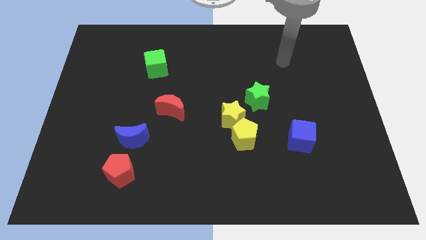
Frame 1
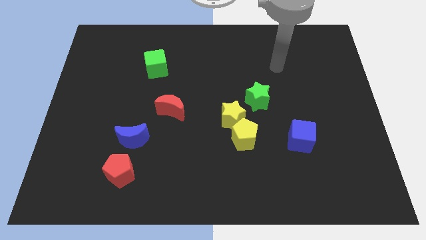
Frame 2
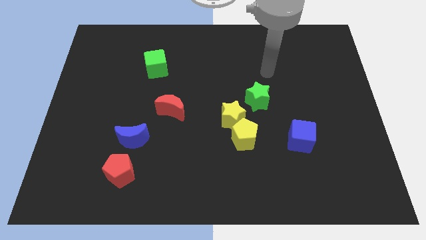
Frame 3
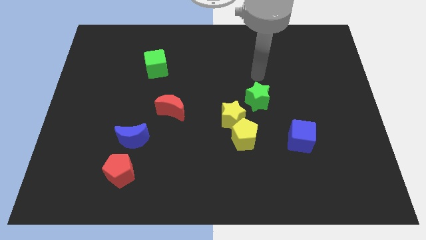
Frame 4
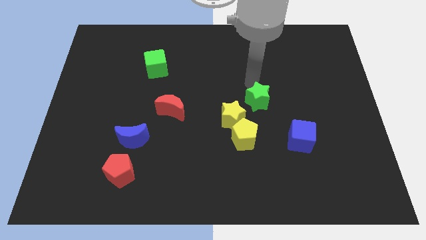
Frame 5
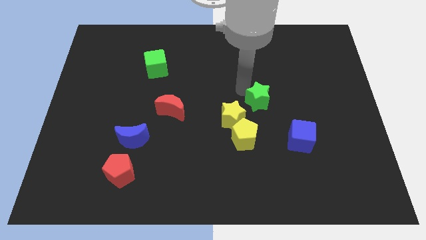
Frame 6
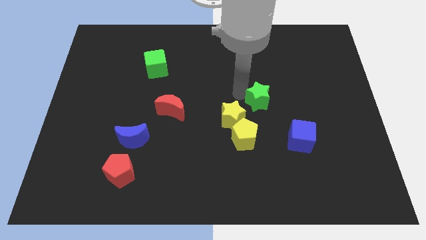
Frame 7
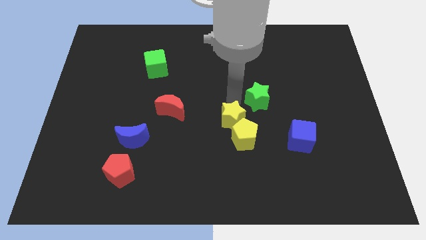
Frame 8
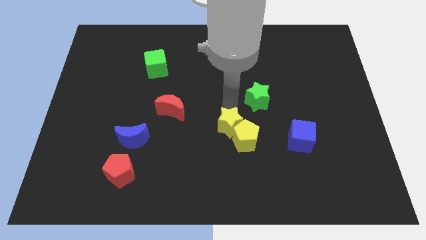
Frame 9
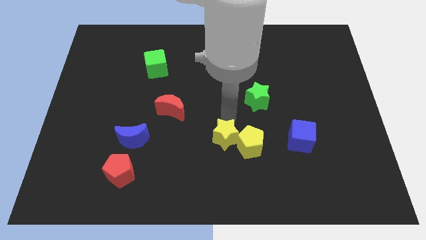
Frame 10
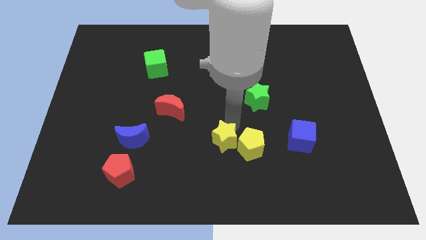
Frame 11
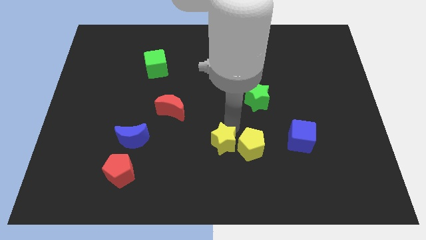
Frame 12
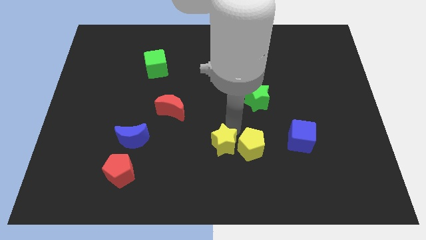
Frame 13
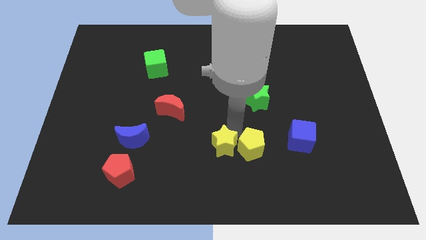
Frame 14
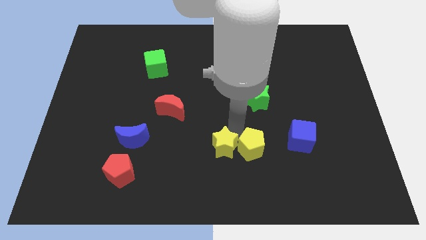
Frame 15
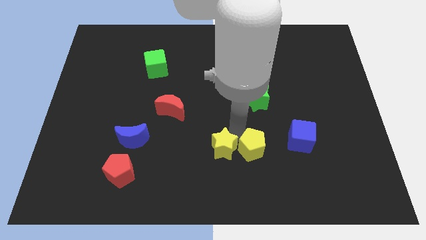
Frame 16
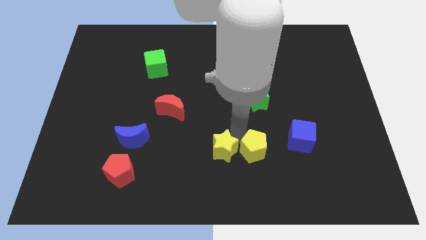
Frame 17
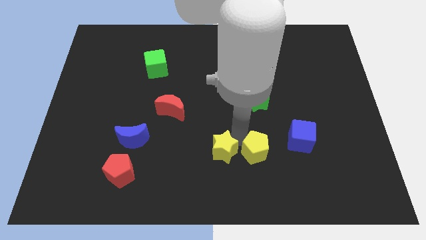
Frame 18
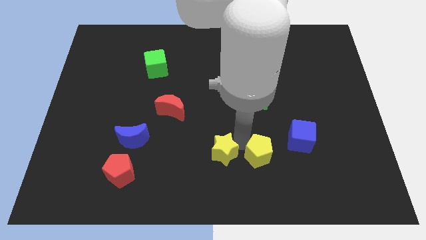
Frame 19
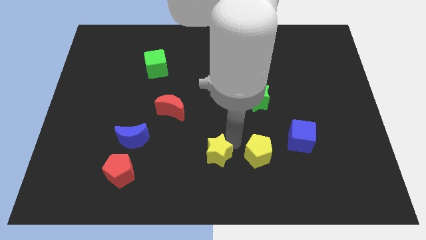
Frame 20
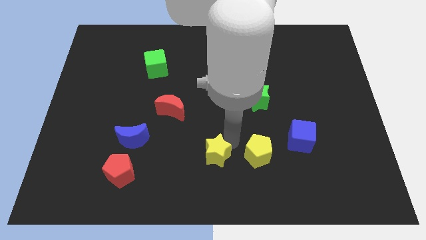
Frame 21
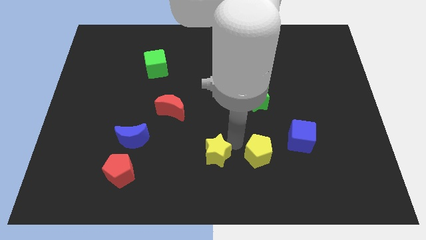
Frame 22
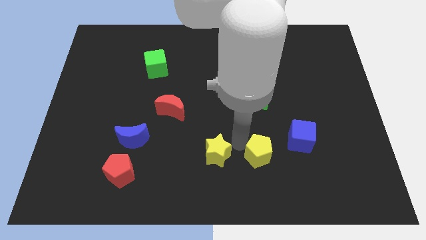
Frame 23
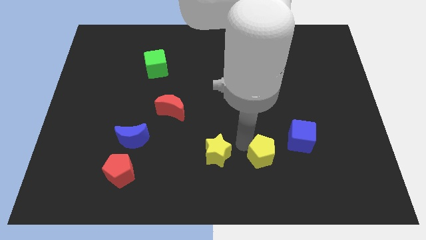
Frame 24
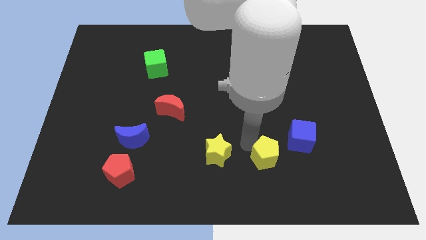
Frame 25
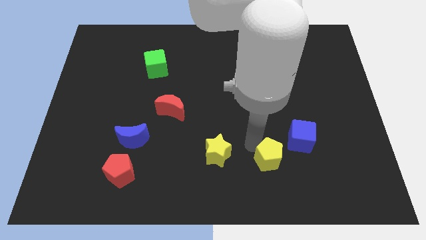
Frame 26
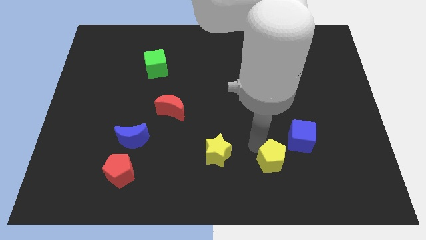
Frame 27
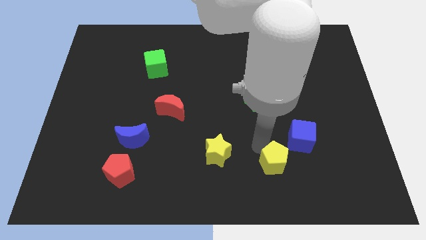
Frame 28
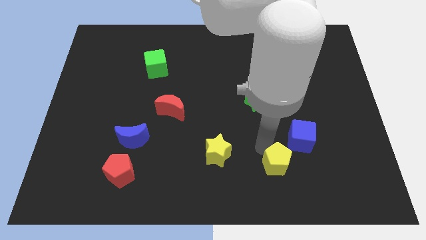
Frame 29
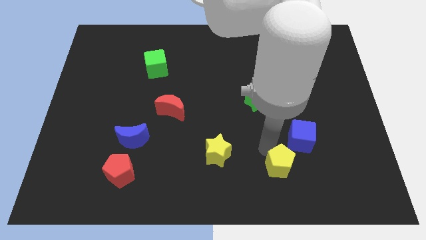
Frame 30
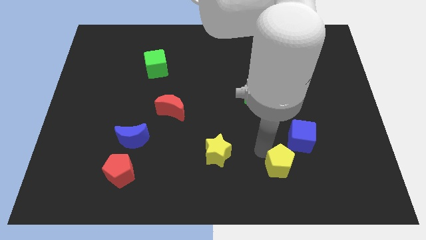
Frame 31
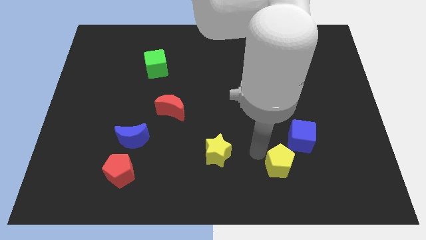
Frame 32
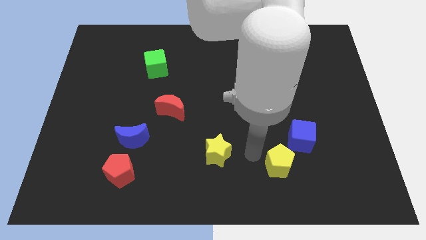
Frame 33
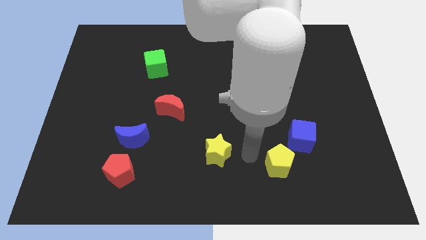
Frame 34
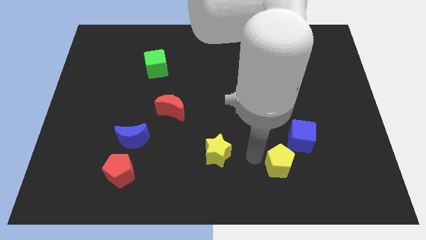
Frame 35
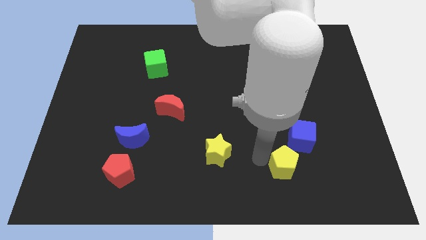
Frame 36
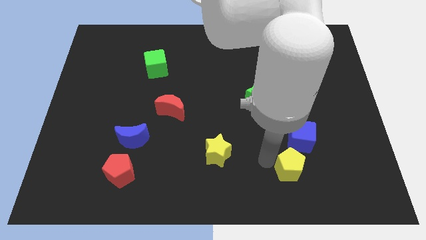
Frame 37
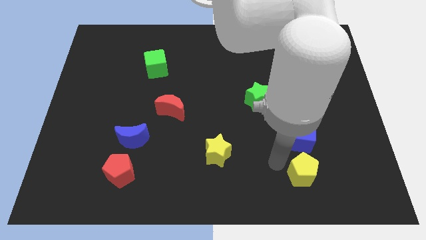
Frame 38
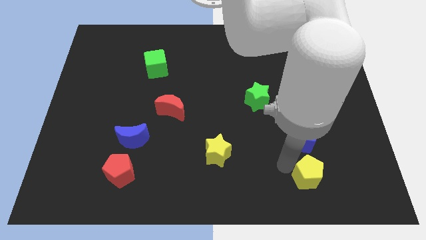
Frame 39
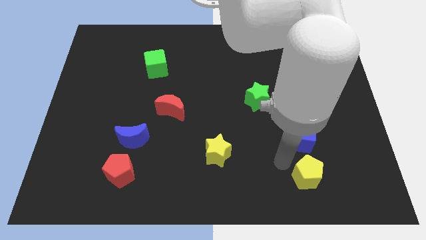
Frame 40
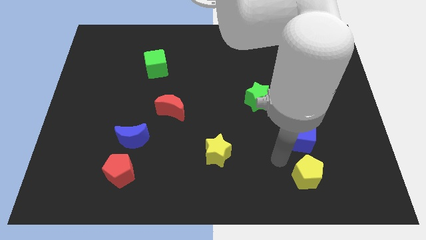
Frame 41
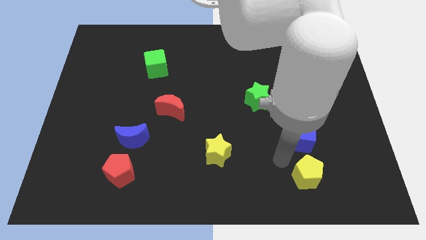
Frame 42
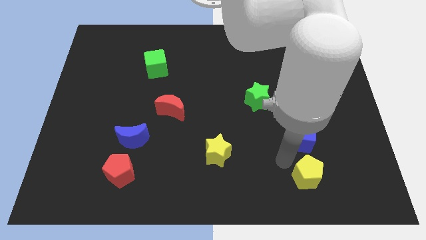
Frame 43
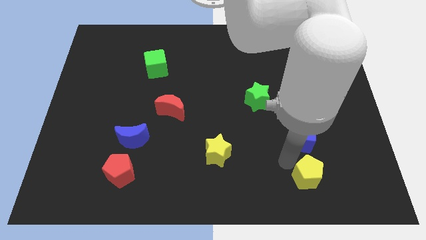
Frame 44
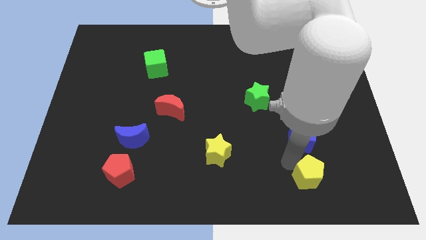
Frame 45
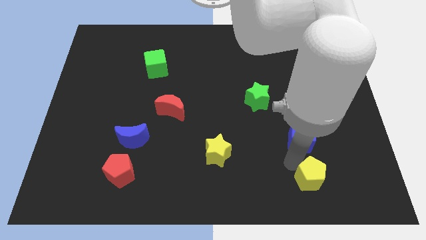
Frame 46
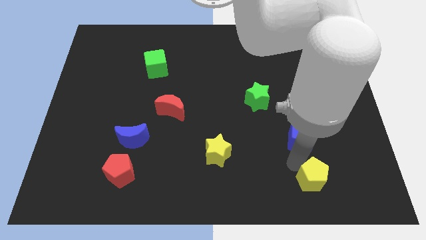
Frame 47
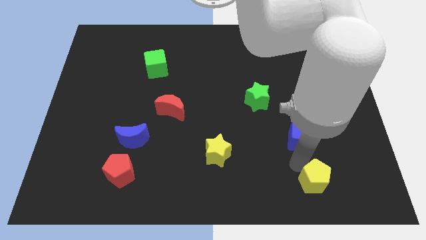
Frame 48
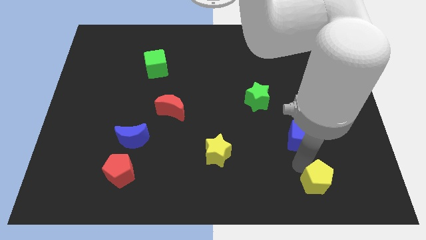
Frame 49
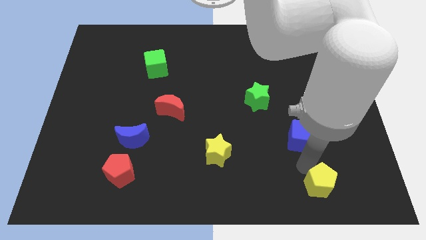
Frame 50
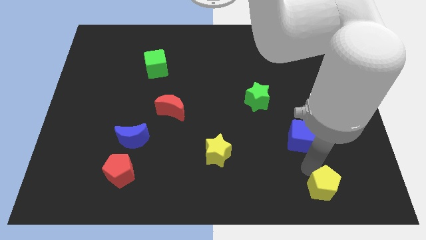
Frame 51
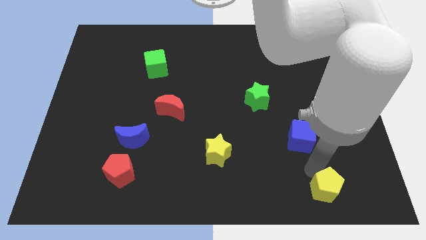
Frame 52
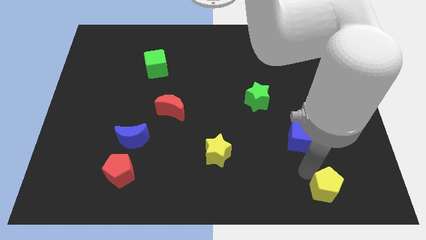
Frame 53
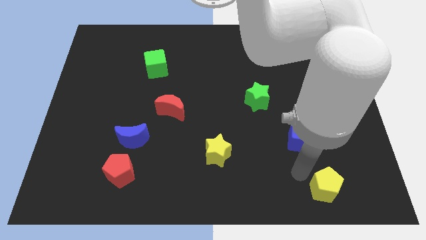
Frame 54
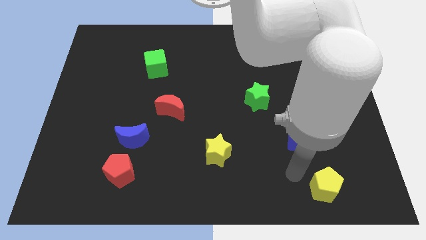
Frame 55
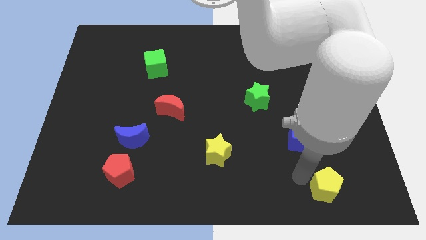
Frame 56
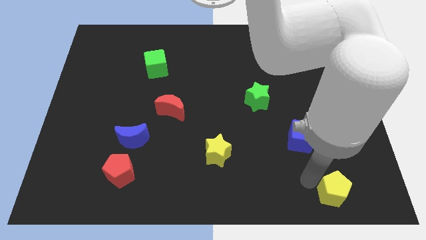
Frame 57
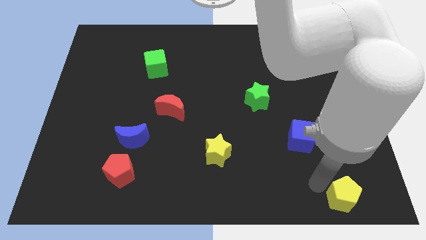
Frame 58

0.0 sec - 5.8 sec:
move the yellow pentagon to the bottom right

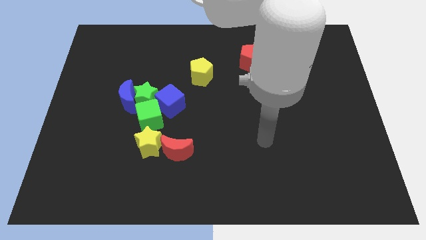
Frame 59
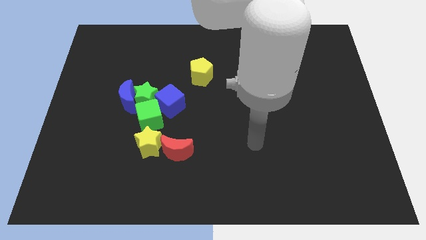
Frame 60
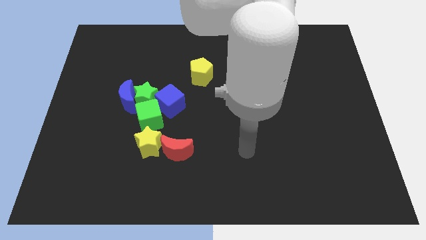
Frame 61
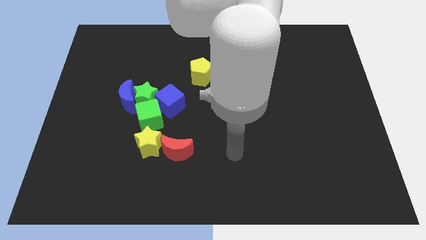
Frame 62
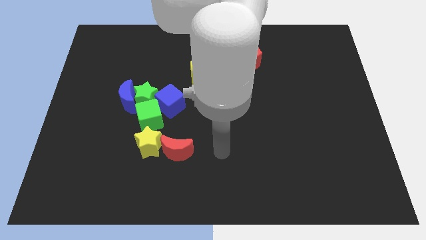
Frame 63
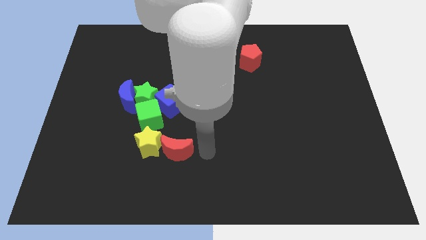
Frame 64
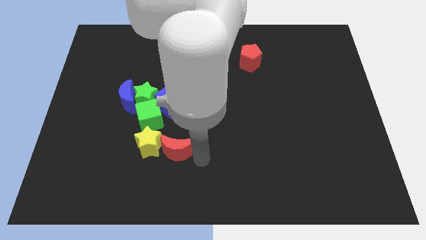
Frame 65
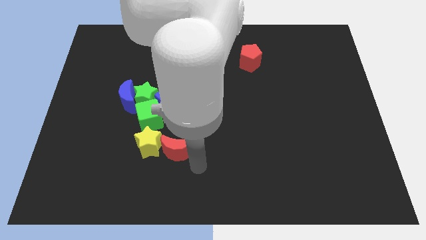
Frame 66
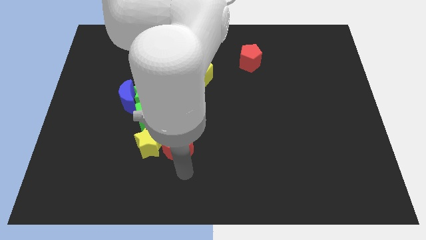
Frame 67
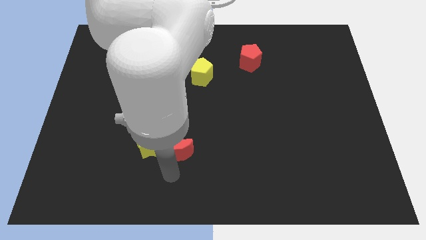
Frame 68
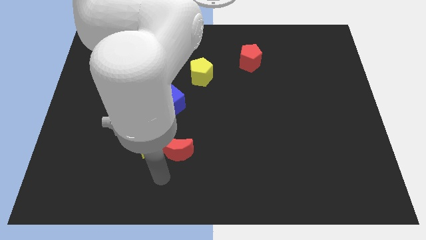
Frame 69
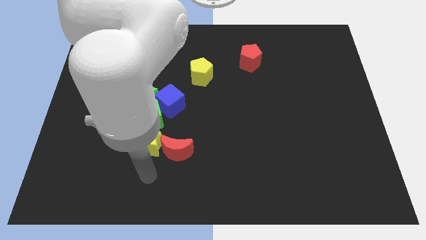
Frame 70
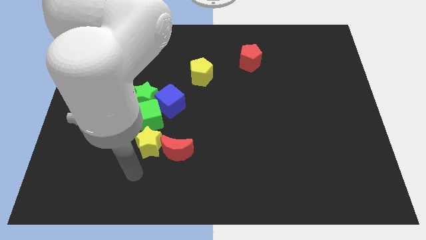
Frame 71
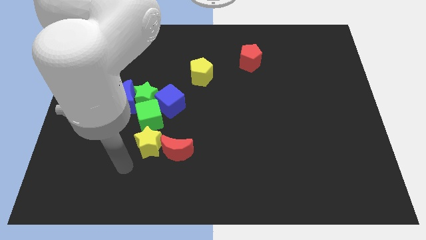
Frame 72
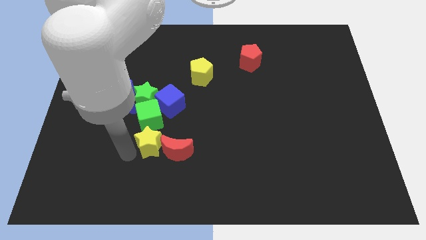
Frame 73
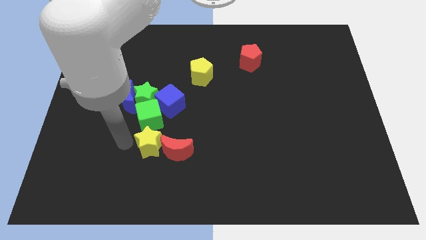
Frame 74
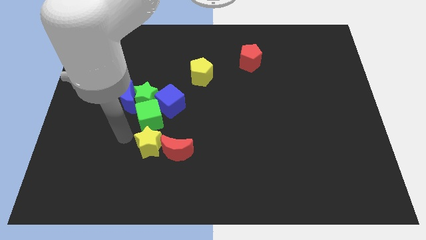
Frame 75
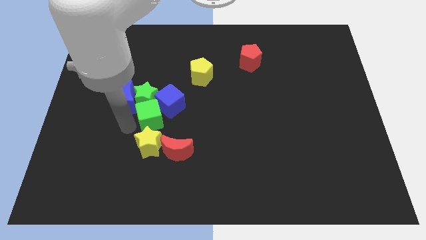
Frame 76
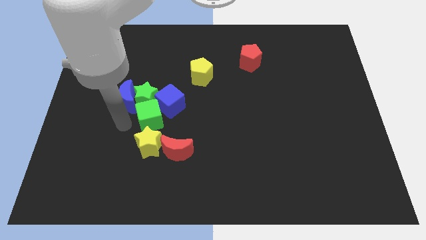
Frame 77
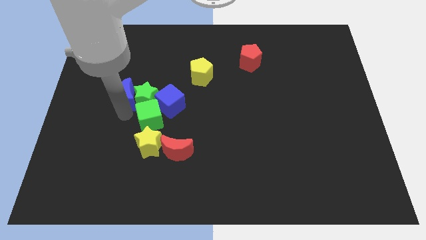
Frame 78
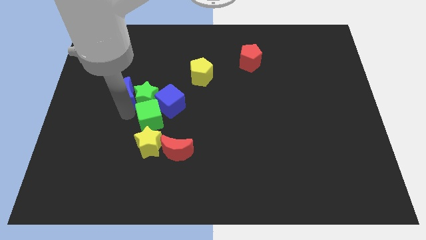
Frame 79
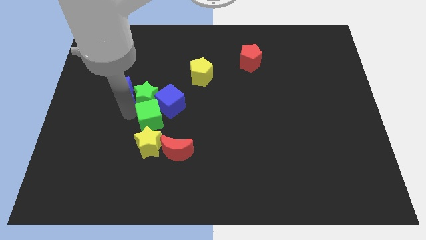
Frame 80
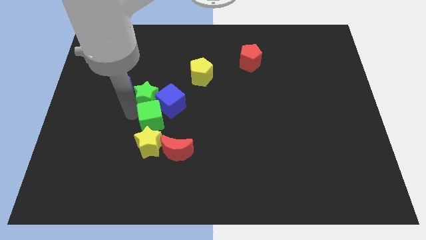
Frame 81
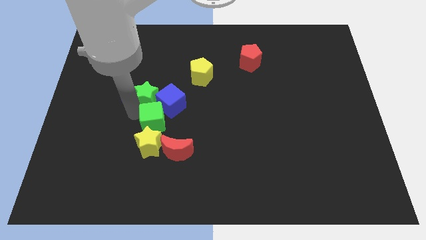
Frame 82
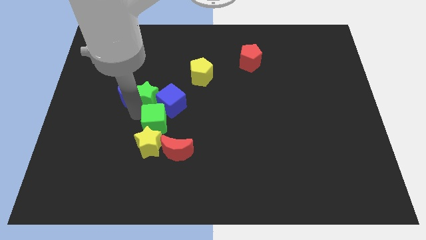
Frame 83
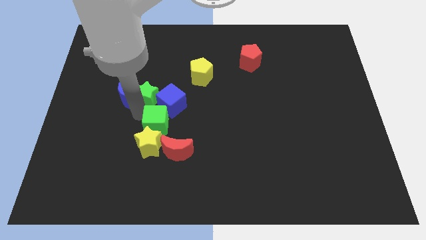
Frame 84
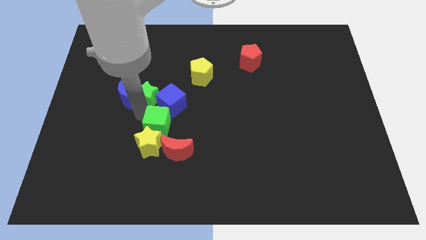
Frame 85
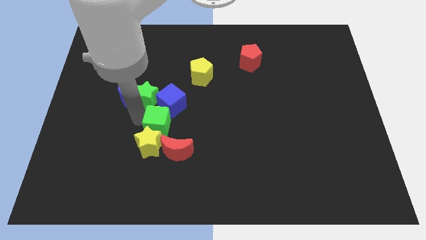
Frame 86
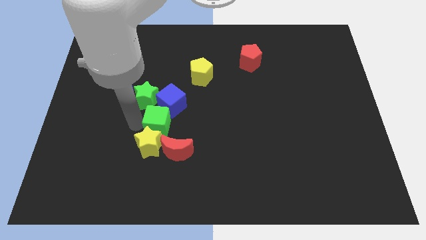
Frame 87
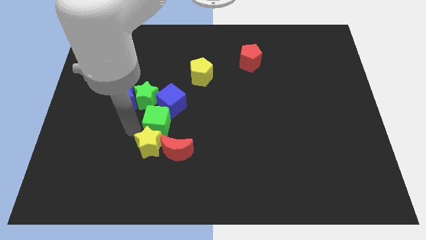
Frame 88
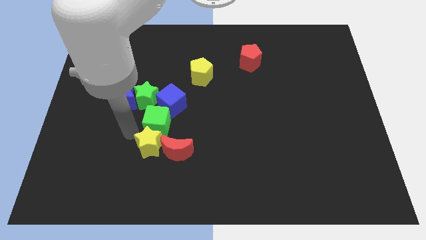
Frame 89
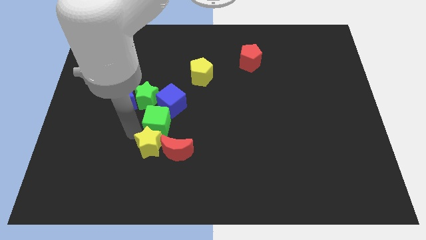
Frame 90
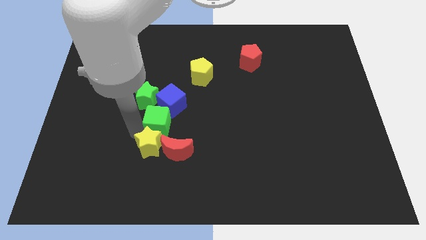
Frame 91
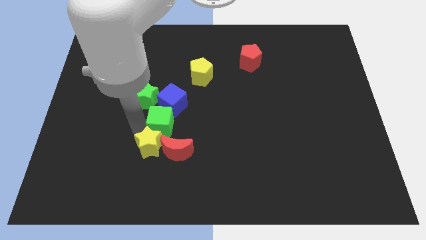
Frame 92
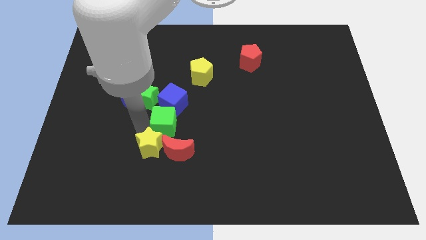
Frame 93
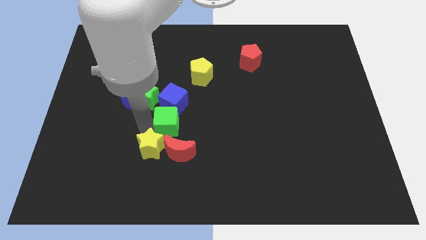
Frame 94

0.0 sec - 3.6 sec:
move the green cube to the middle of the board
